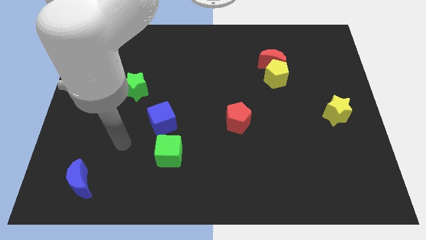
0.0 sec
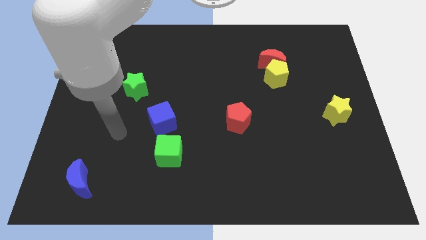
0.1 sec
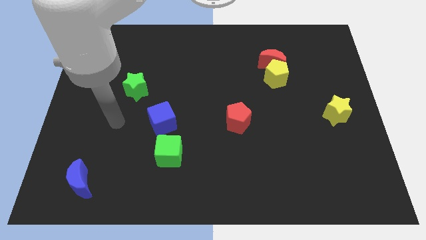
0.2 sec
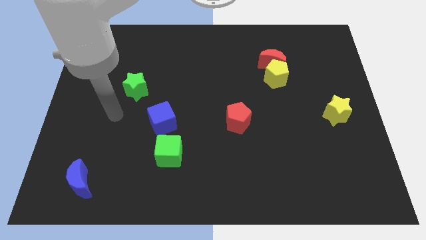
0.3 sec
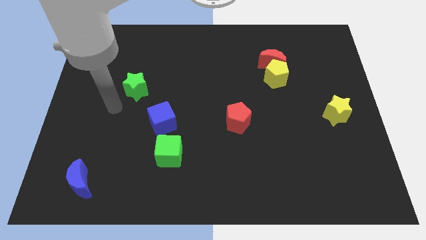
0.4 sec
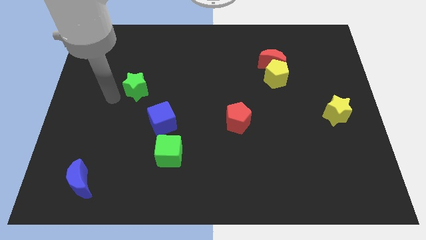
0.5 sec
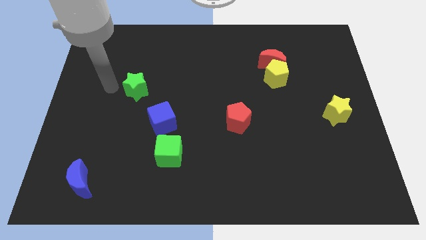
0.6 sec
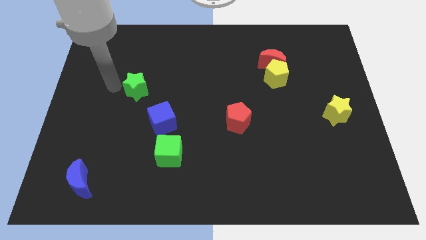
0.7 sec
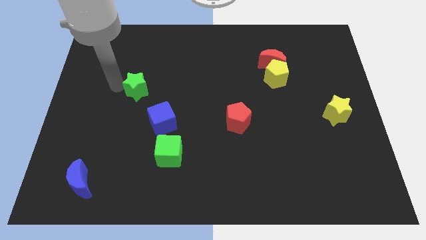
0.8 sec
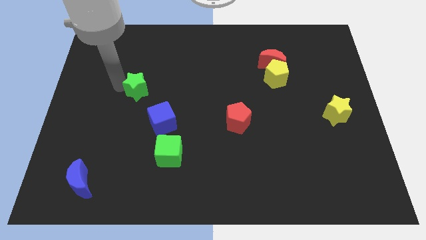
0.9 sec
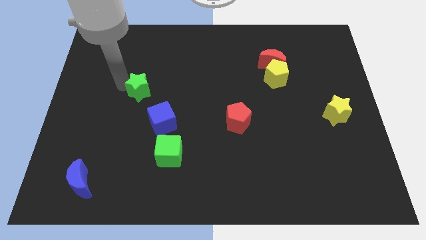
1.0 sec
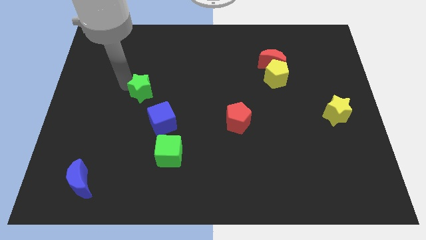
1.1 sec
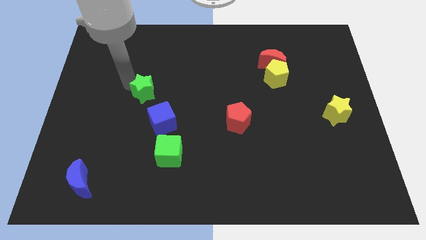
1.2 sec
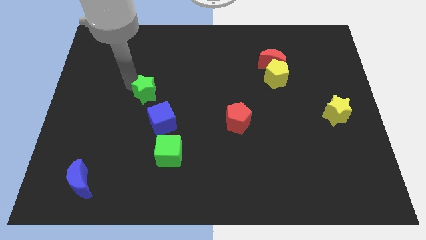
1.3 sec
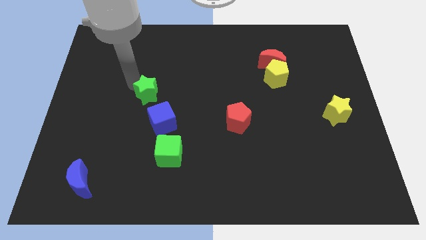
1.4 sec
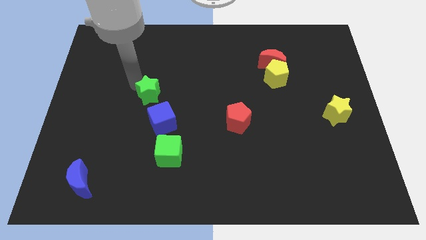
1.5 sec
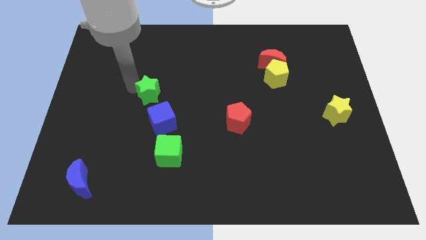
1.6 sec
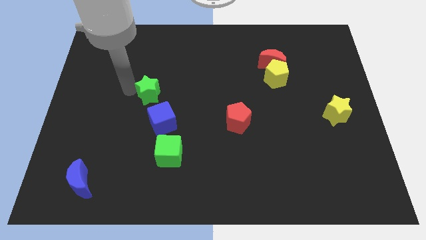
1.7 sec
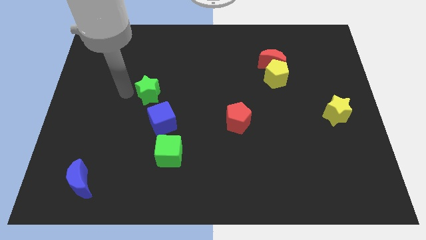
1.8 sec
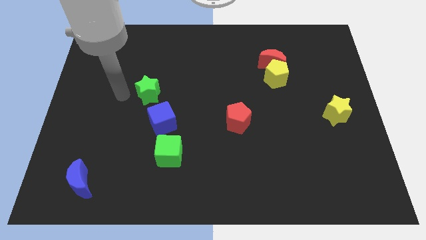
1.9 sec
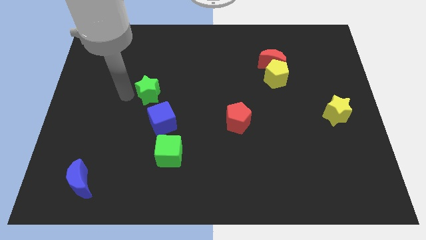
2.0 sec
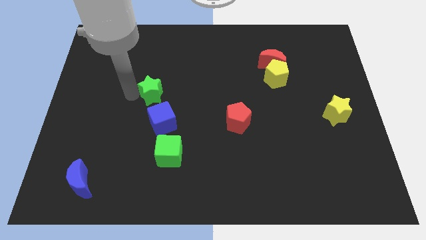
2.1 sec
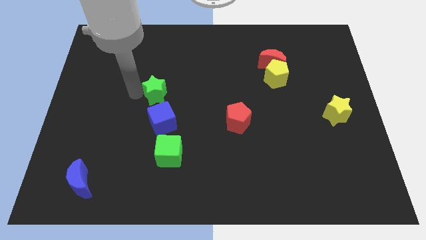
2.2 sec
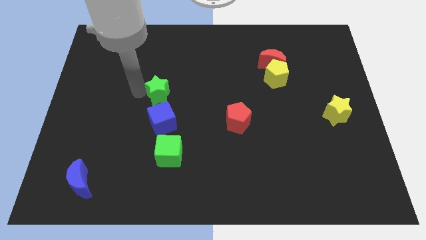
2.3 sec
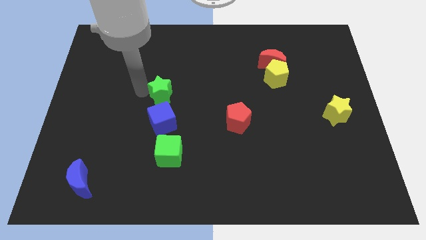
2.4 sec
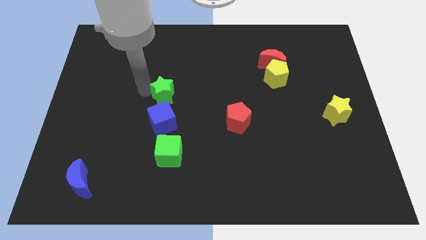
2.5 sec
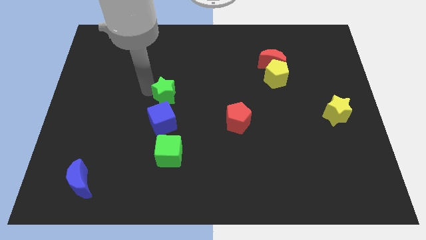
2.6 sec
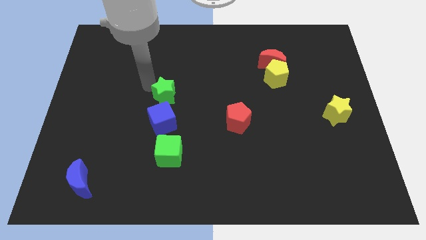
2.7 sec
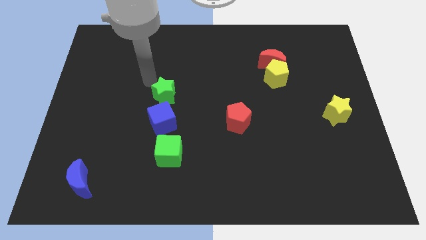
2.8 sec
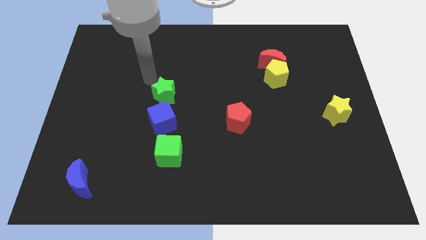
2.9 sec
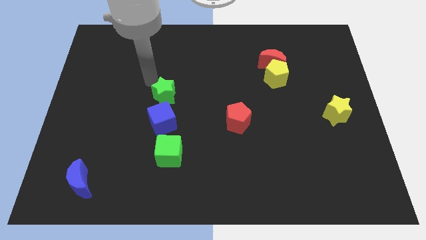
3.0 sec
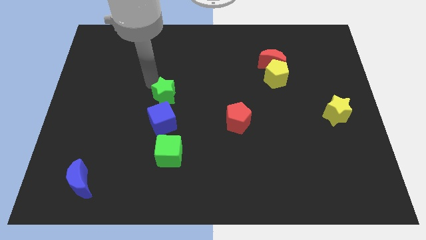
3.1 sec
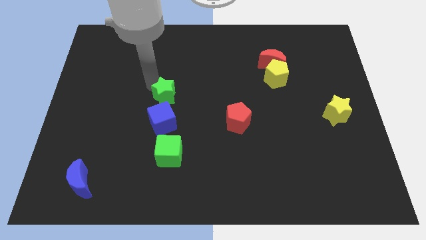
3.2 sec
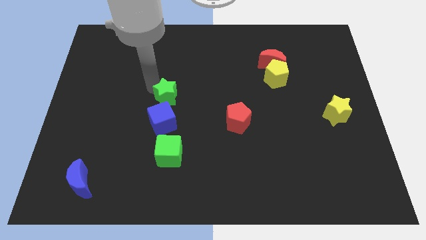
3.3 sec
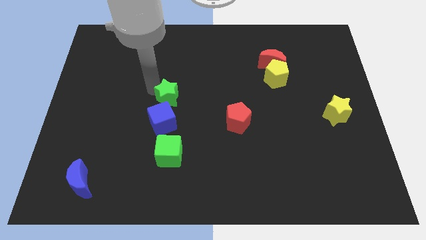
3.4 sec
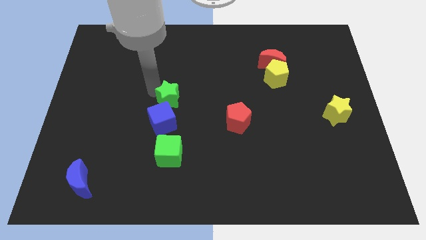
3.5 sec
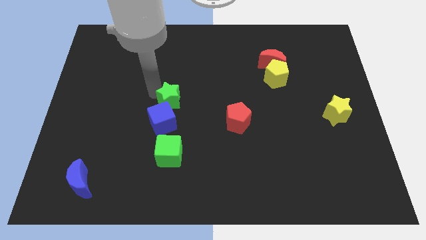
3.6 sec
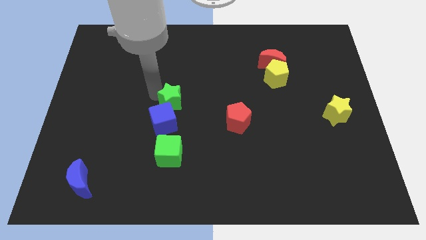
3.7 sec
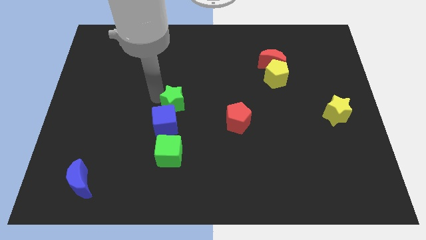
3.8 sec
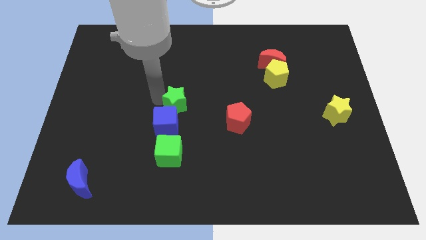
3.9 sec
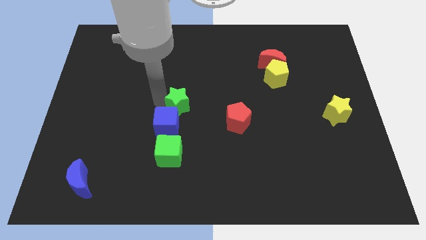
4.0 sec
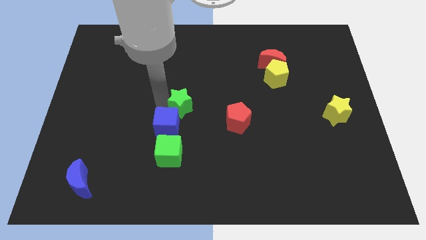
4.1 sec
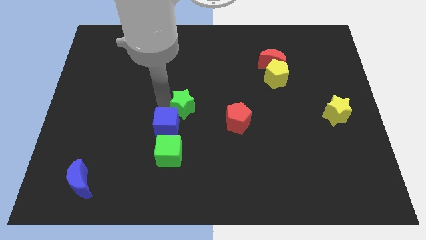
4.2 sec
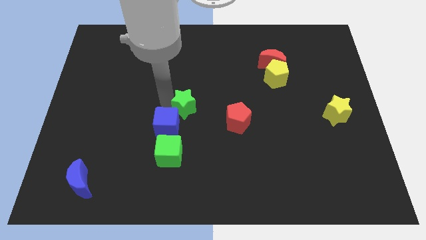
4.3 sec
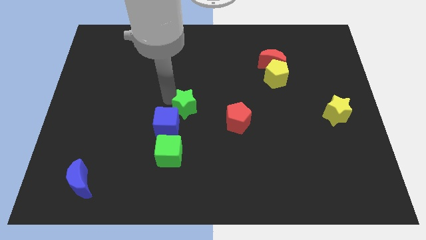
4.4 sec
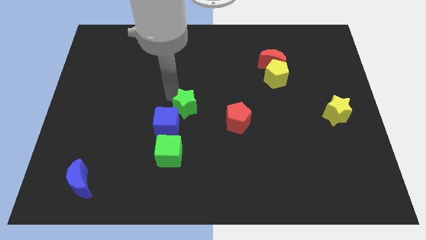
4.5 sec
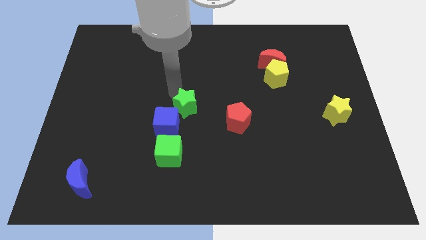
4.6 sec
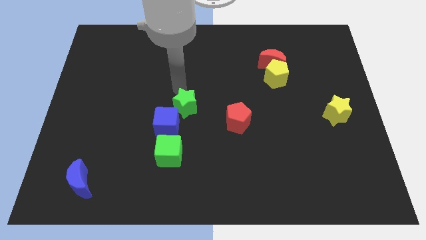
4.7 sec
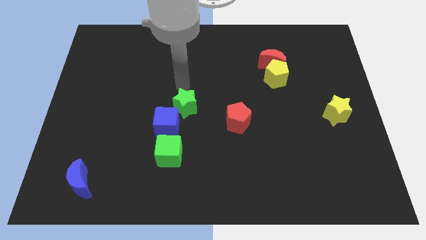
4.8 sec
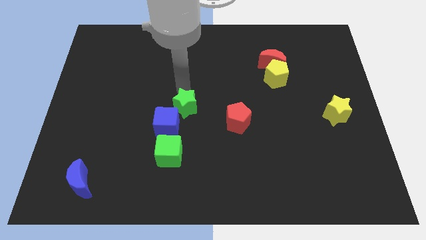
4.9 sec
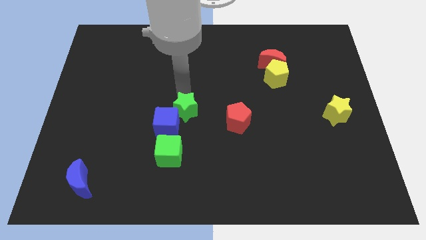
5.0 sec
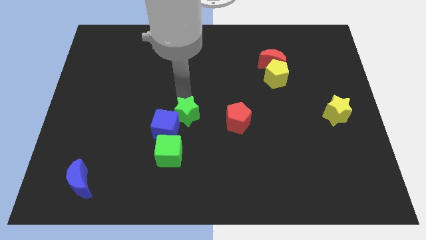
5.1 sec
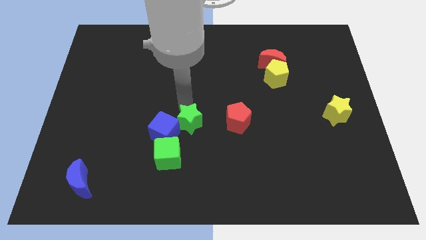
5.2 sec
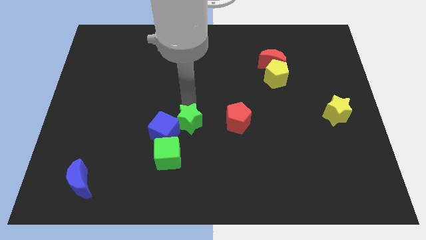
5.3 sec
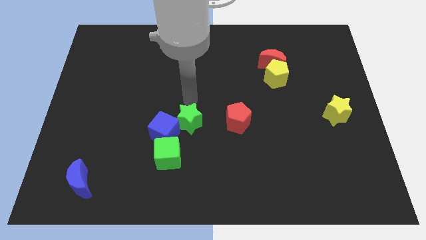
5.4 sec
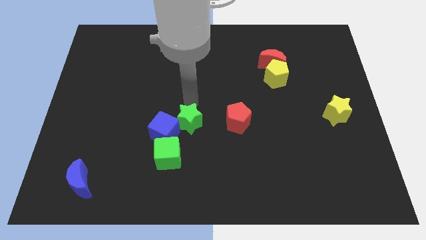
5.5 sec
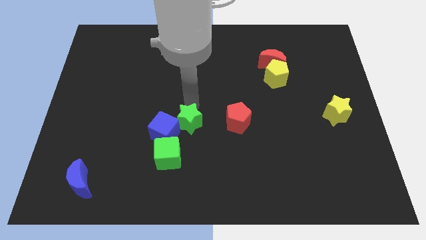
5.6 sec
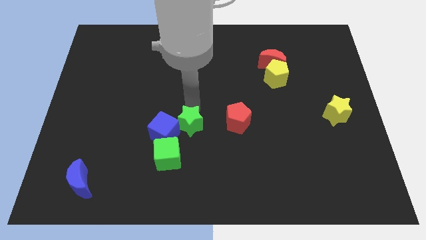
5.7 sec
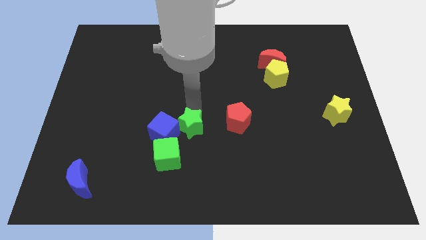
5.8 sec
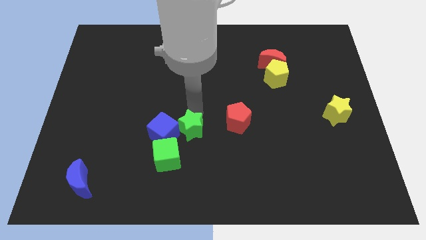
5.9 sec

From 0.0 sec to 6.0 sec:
move the green star to the bottom right of the blue cube

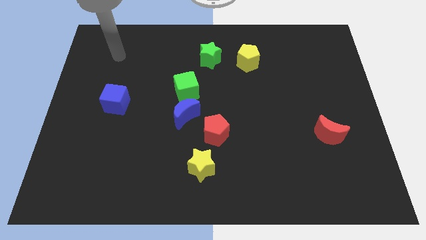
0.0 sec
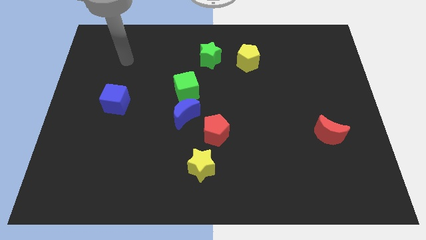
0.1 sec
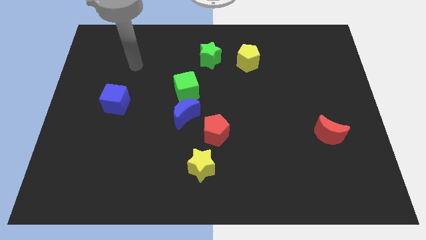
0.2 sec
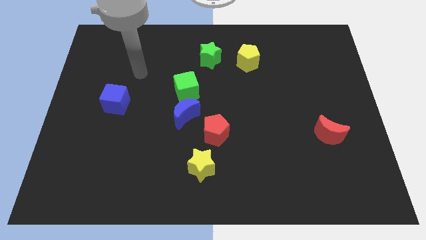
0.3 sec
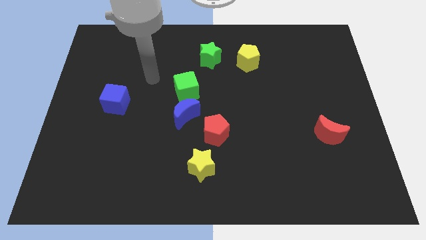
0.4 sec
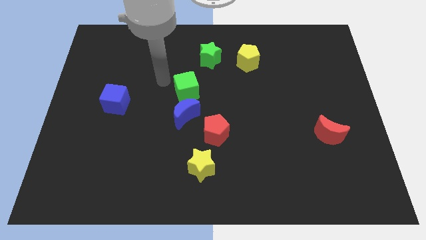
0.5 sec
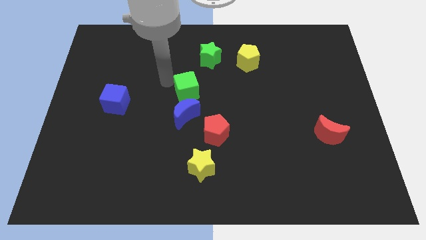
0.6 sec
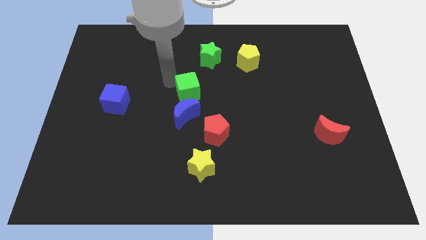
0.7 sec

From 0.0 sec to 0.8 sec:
put the green cube to the top right of the blue moon

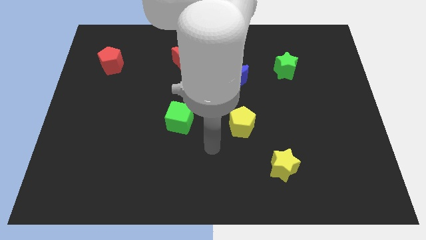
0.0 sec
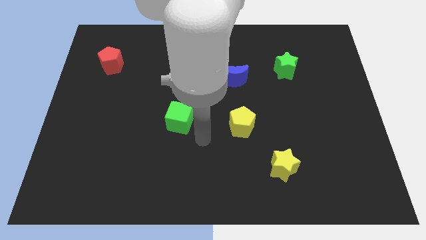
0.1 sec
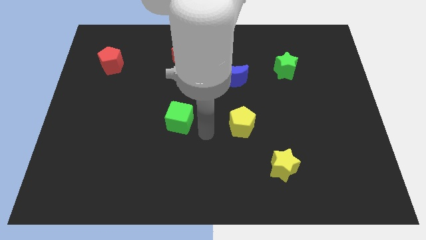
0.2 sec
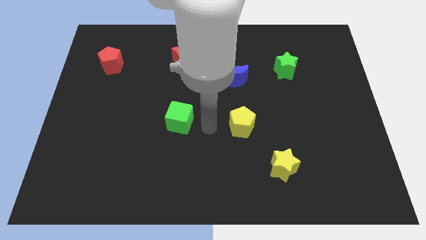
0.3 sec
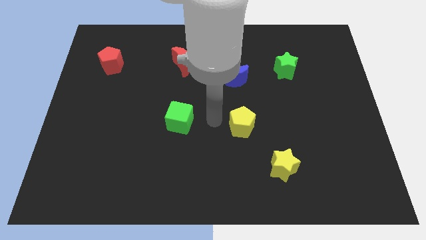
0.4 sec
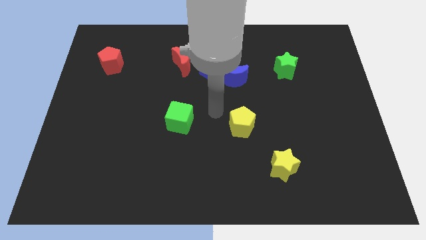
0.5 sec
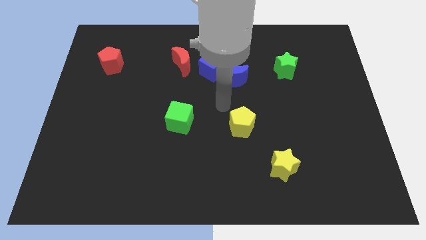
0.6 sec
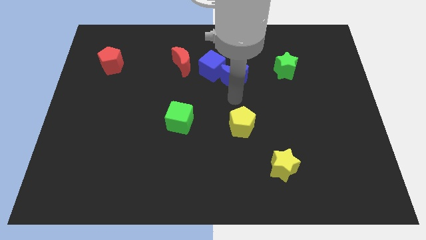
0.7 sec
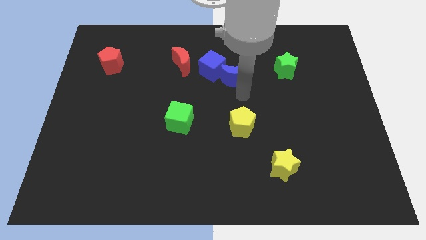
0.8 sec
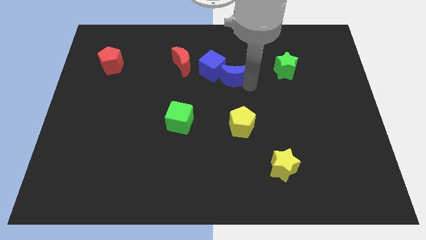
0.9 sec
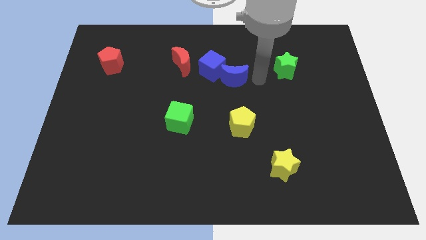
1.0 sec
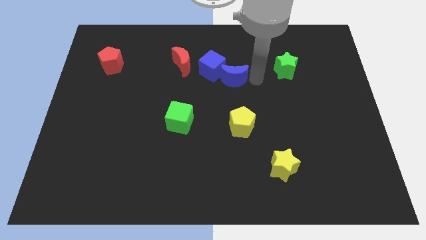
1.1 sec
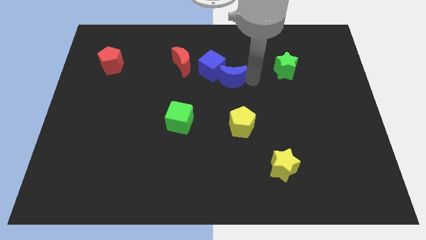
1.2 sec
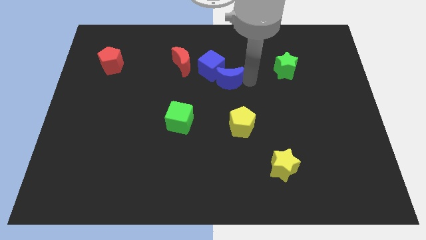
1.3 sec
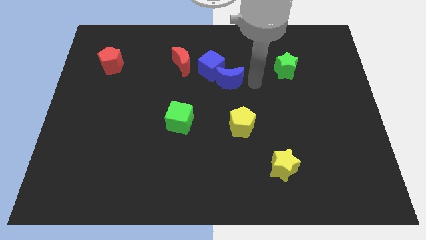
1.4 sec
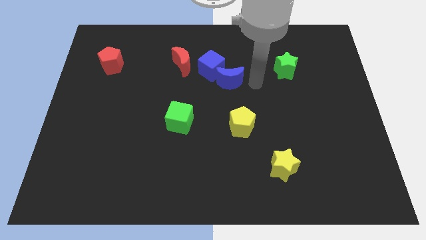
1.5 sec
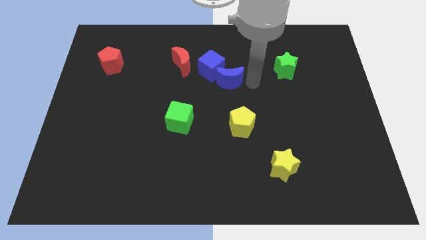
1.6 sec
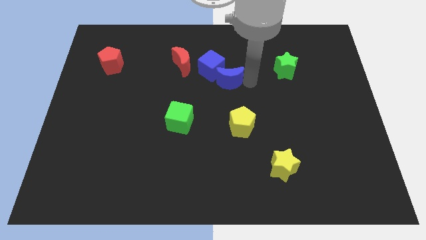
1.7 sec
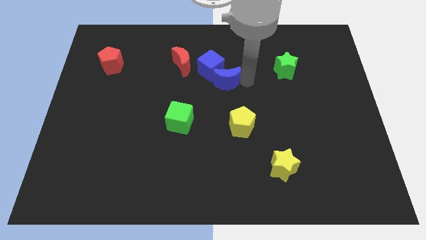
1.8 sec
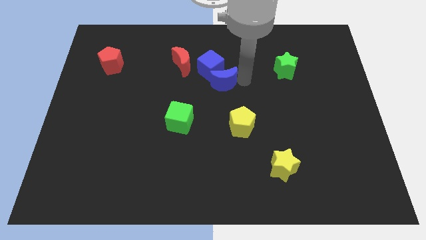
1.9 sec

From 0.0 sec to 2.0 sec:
slide the blue moon diagonally down and to the right of the red moon
